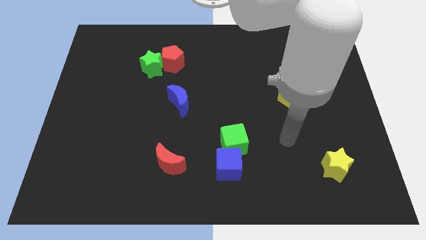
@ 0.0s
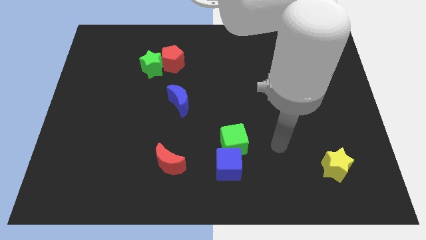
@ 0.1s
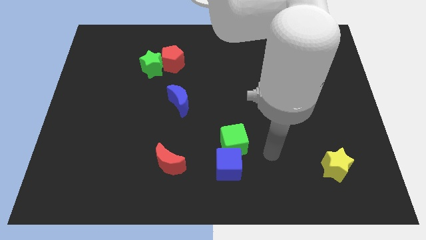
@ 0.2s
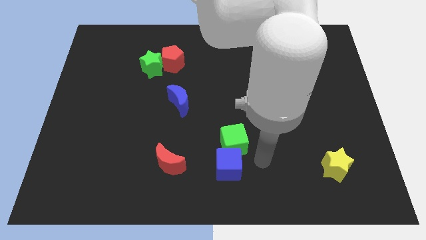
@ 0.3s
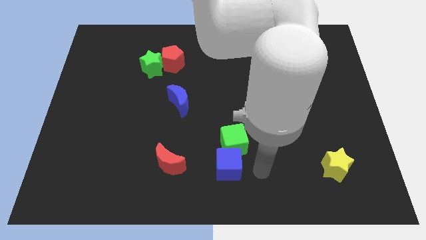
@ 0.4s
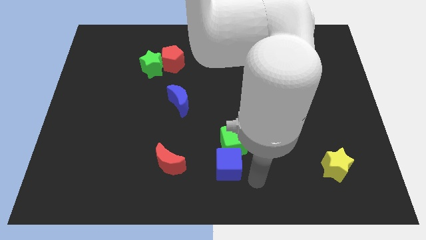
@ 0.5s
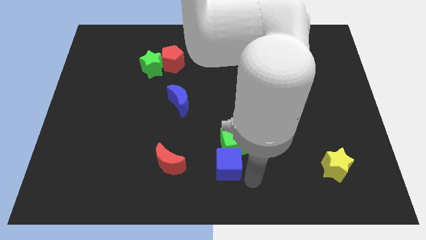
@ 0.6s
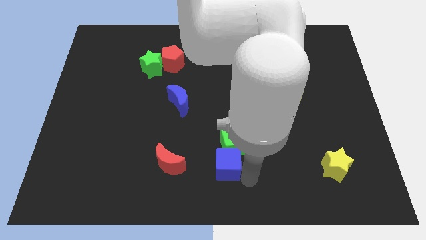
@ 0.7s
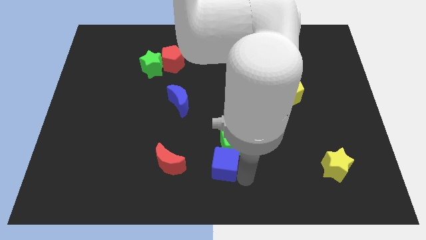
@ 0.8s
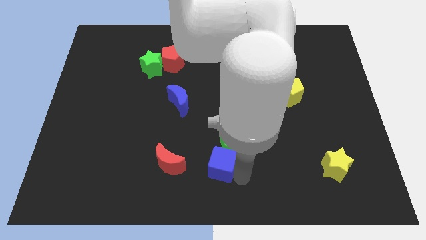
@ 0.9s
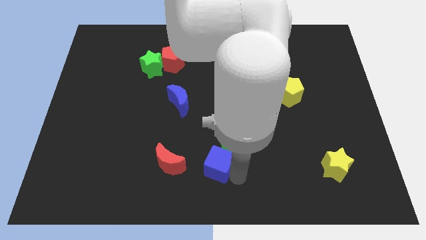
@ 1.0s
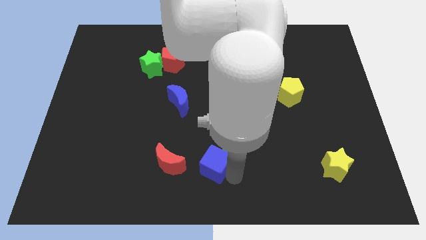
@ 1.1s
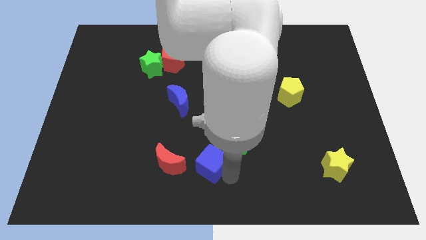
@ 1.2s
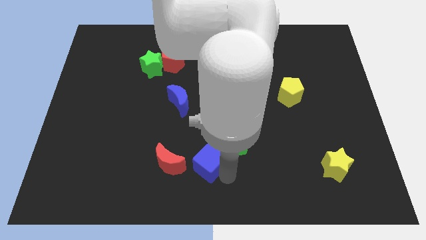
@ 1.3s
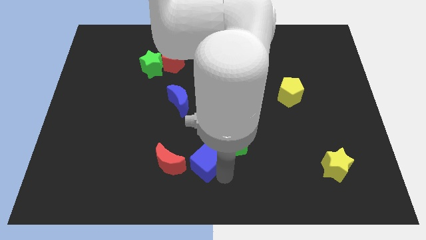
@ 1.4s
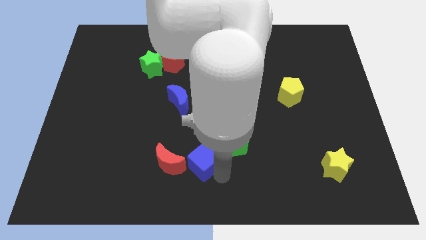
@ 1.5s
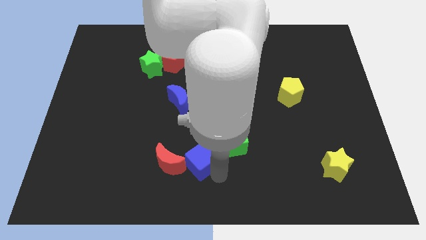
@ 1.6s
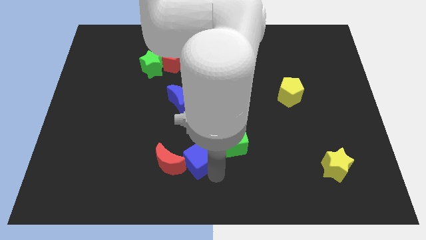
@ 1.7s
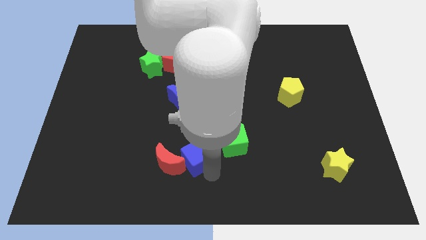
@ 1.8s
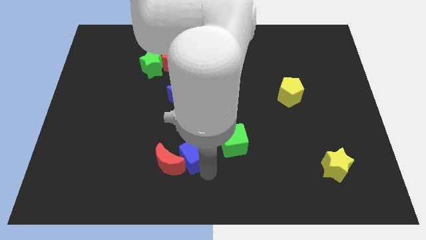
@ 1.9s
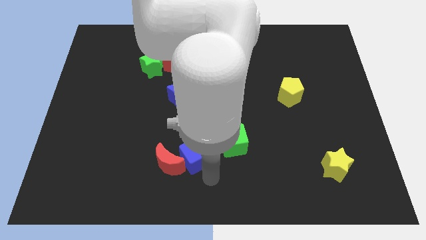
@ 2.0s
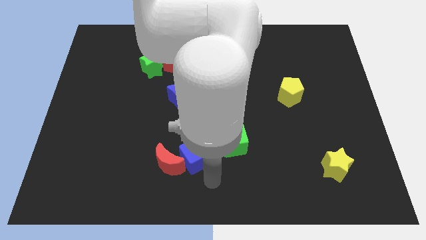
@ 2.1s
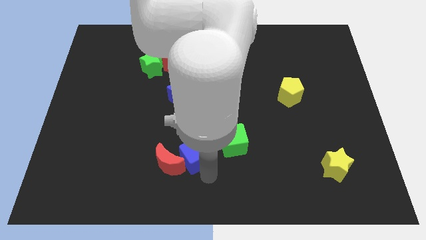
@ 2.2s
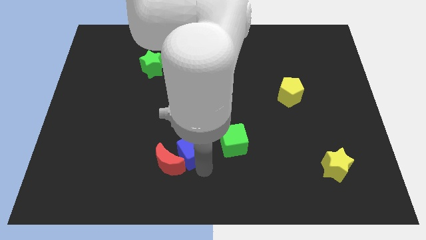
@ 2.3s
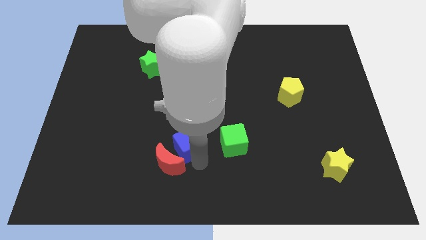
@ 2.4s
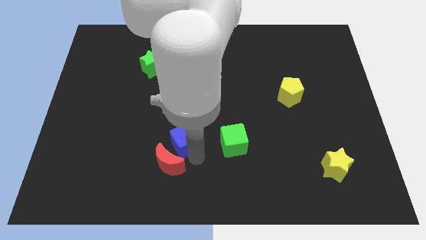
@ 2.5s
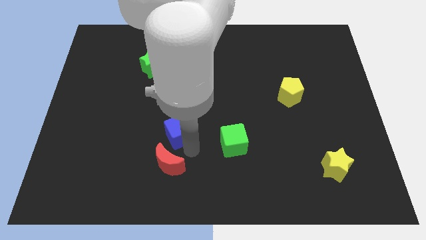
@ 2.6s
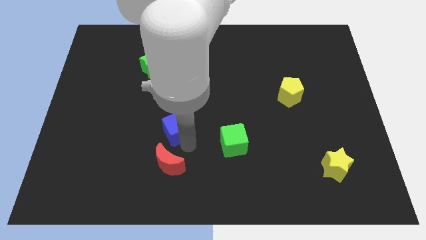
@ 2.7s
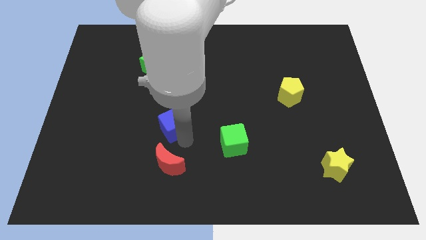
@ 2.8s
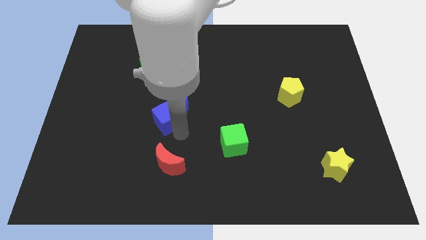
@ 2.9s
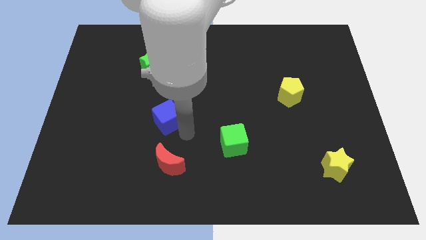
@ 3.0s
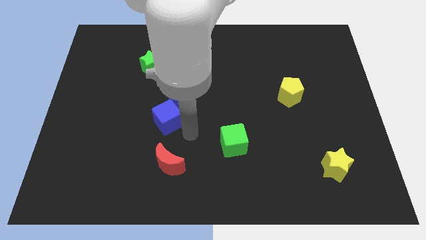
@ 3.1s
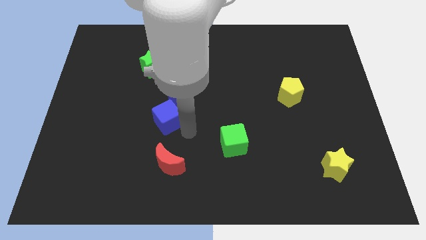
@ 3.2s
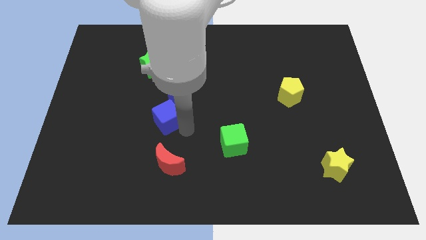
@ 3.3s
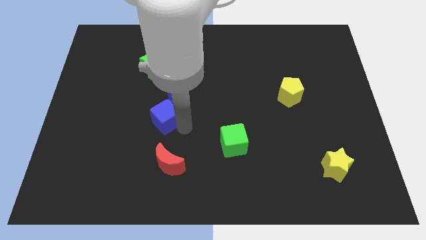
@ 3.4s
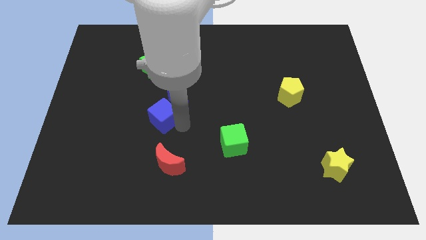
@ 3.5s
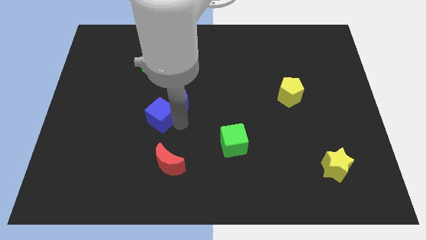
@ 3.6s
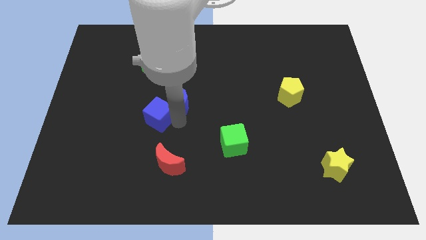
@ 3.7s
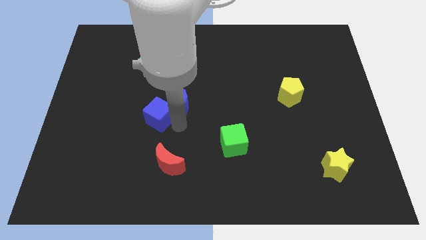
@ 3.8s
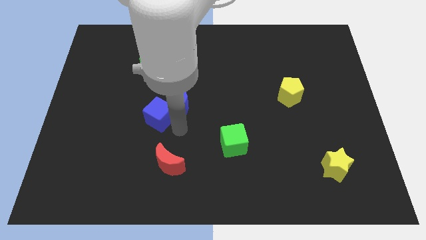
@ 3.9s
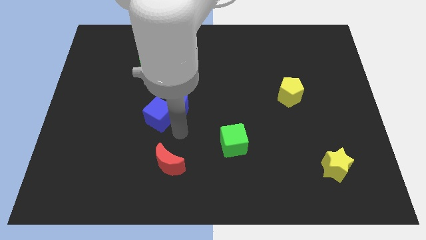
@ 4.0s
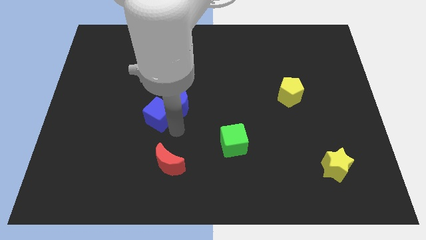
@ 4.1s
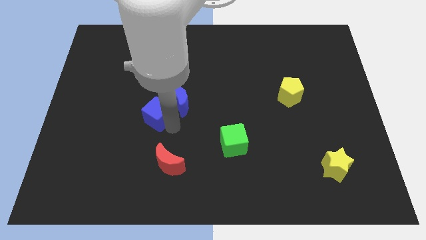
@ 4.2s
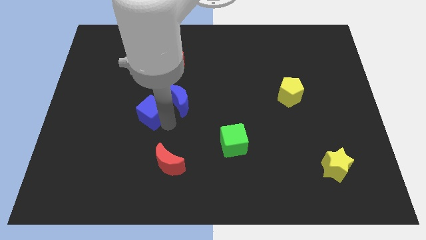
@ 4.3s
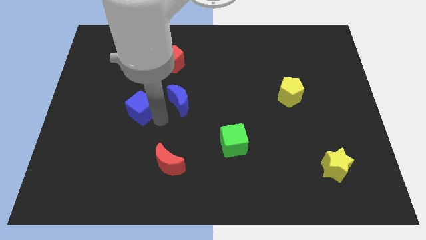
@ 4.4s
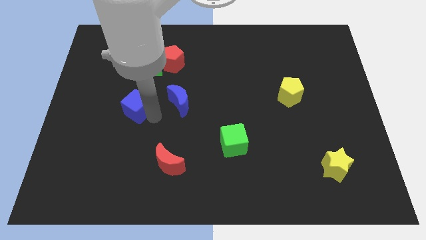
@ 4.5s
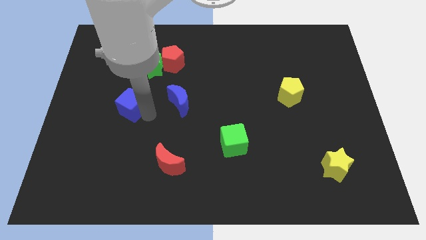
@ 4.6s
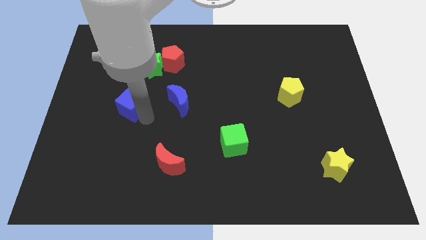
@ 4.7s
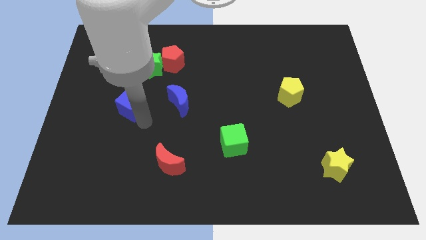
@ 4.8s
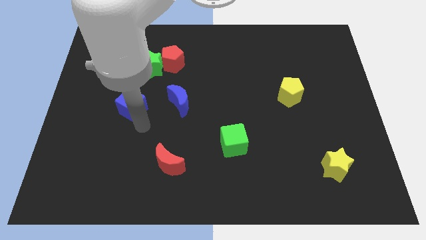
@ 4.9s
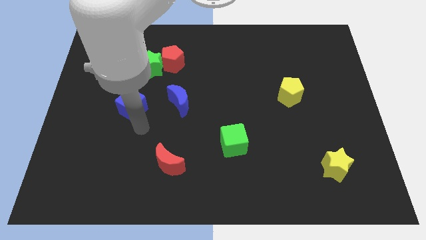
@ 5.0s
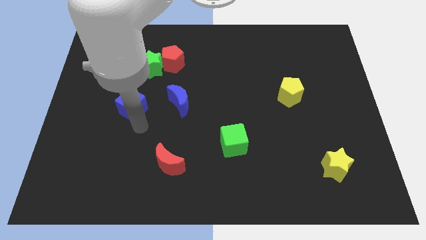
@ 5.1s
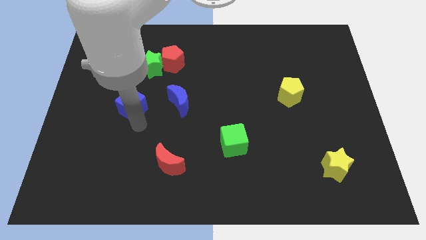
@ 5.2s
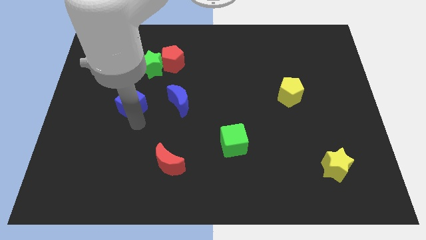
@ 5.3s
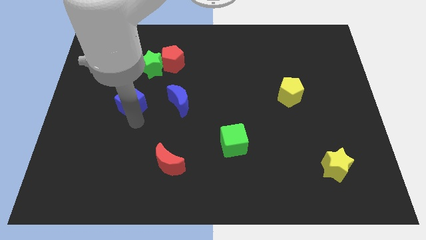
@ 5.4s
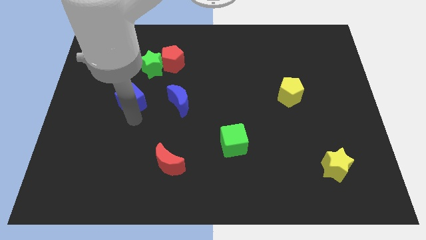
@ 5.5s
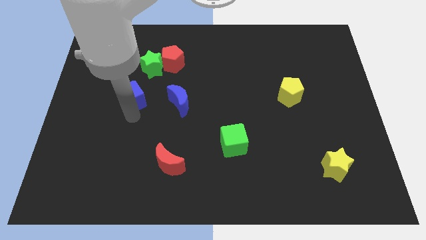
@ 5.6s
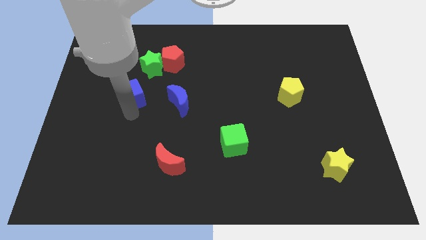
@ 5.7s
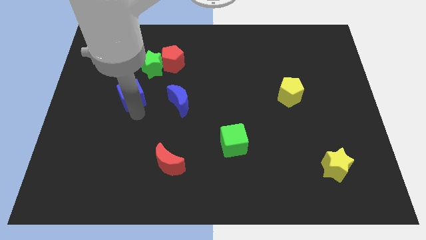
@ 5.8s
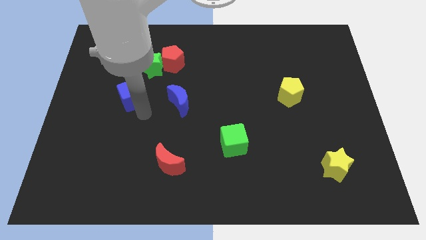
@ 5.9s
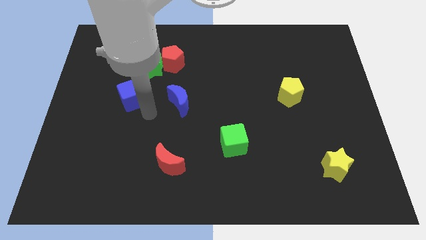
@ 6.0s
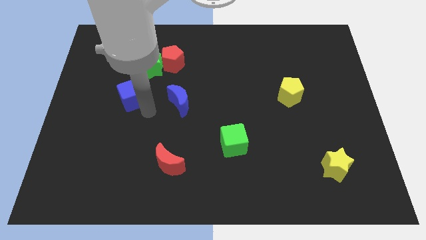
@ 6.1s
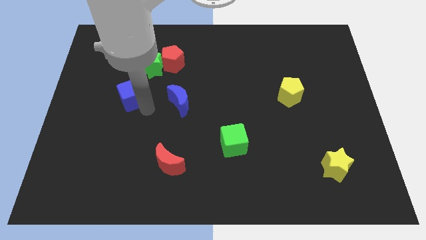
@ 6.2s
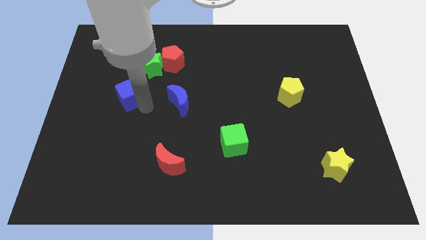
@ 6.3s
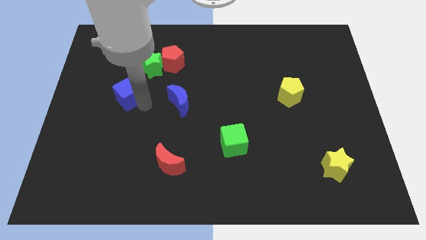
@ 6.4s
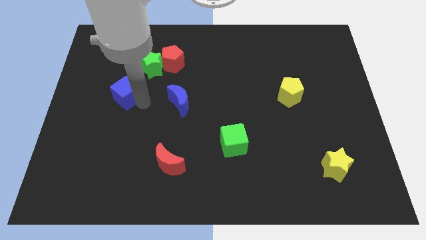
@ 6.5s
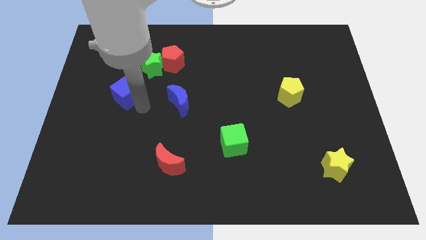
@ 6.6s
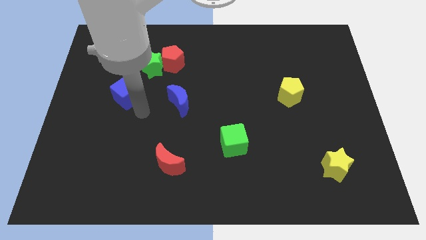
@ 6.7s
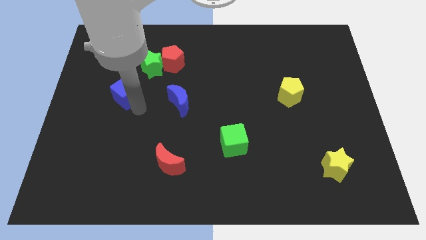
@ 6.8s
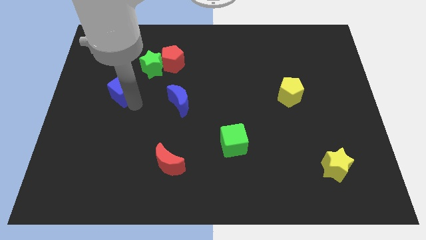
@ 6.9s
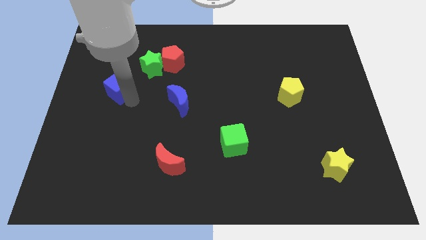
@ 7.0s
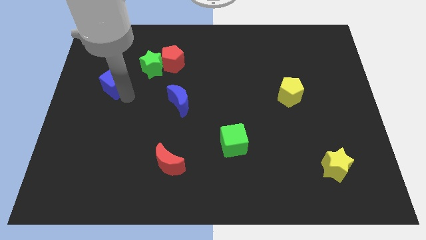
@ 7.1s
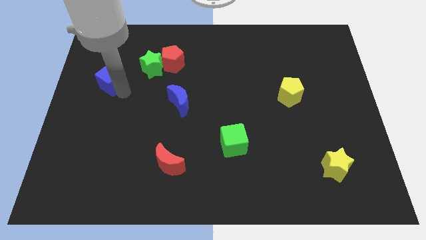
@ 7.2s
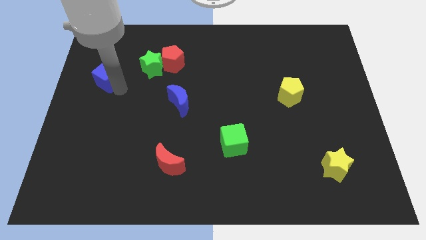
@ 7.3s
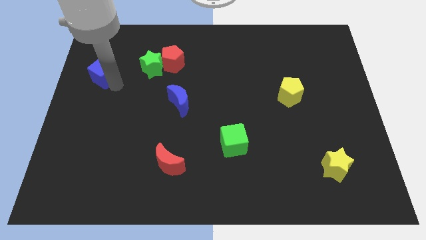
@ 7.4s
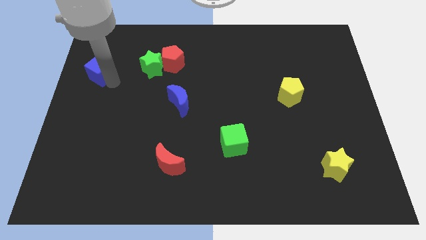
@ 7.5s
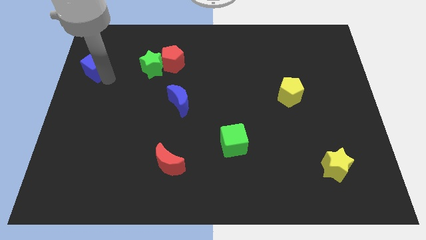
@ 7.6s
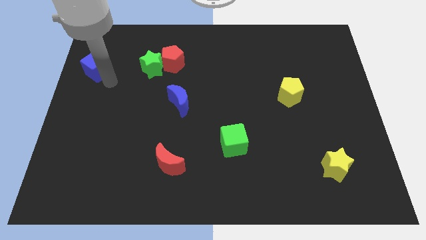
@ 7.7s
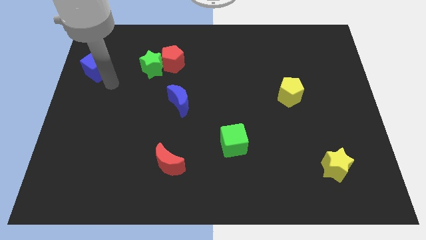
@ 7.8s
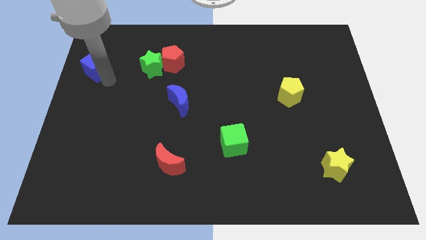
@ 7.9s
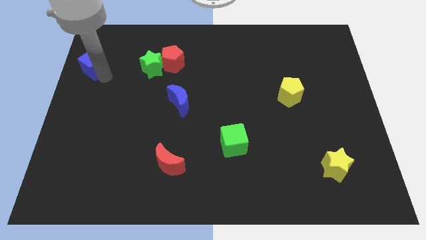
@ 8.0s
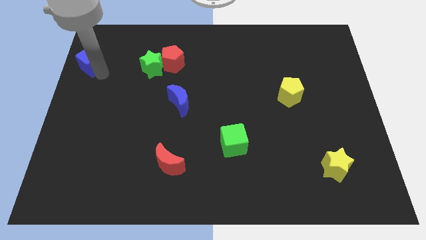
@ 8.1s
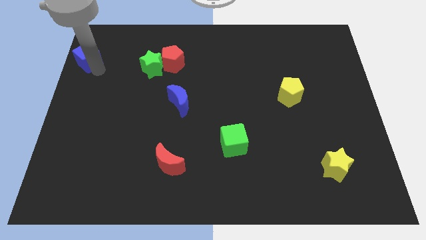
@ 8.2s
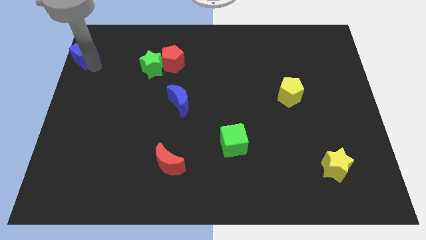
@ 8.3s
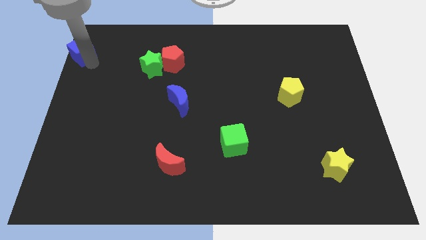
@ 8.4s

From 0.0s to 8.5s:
put the blue cube to the top left
